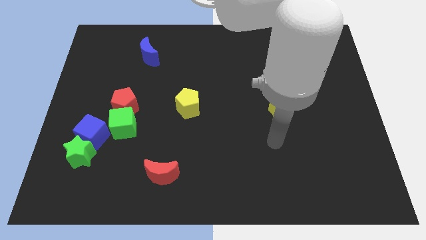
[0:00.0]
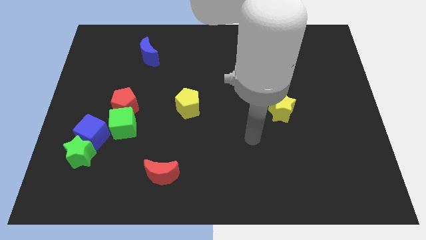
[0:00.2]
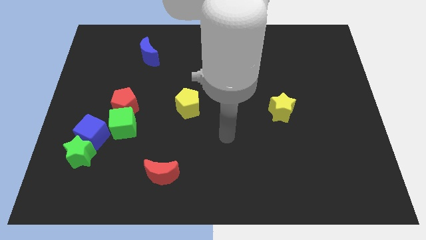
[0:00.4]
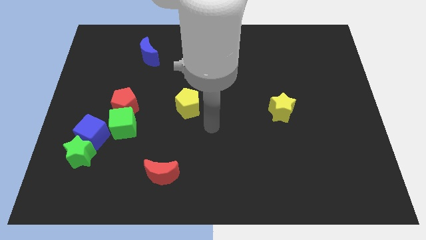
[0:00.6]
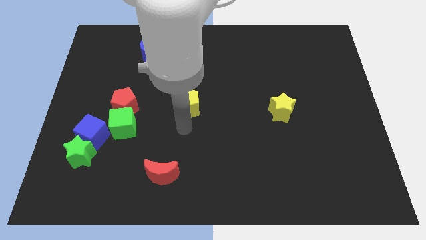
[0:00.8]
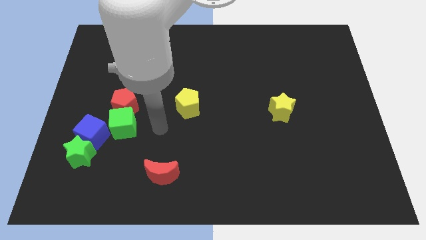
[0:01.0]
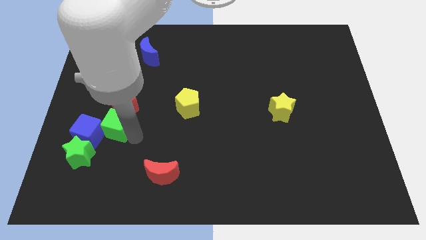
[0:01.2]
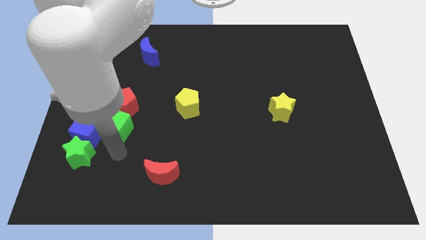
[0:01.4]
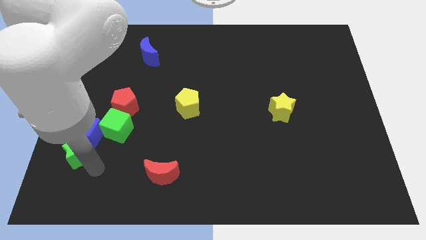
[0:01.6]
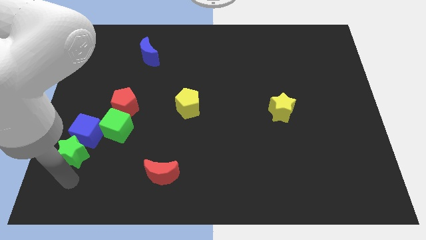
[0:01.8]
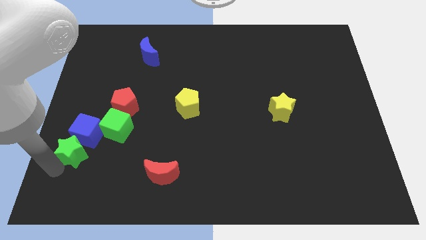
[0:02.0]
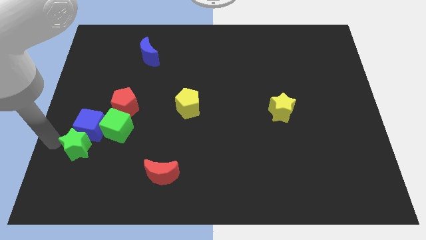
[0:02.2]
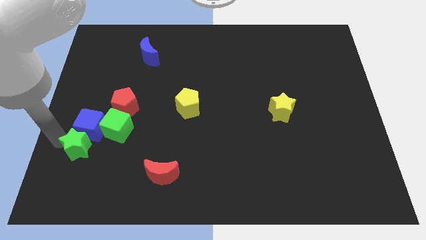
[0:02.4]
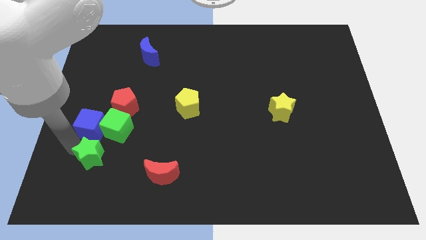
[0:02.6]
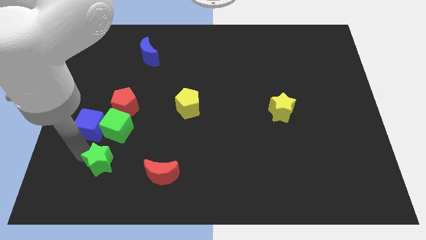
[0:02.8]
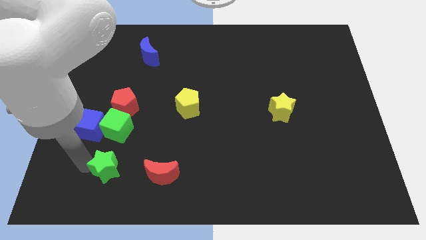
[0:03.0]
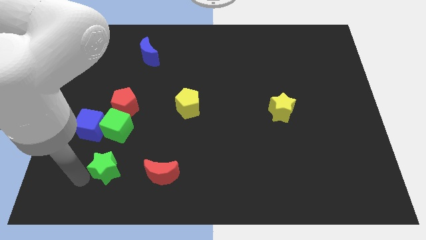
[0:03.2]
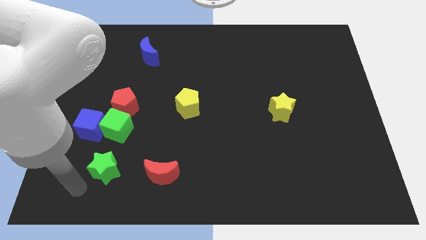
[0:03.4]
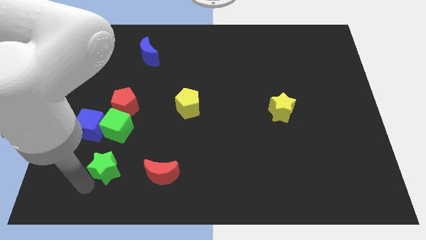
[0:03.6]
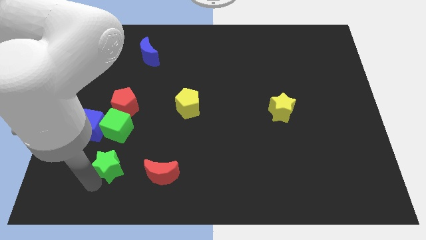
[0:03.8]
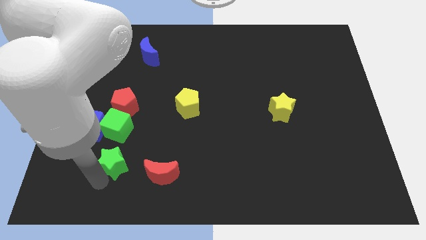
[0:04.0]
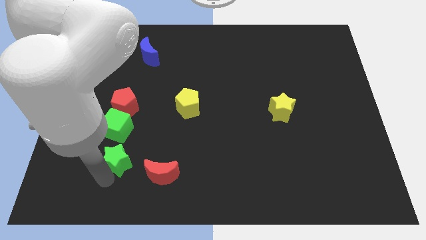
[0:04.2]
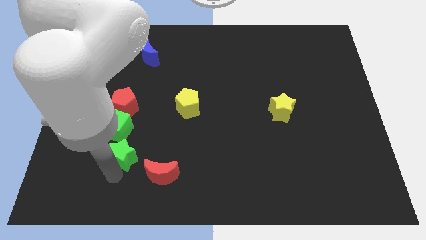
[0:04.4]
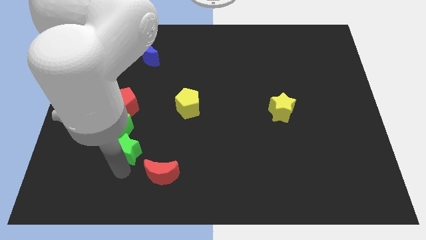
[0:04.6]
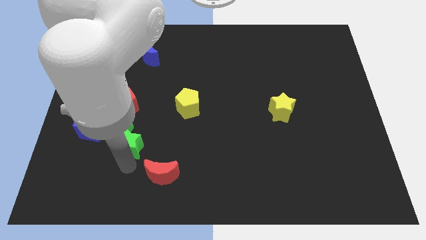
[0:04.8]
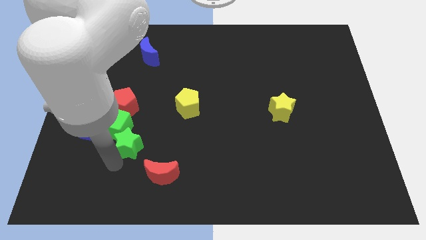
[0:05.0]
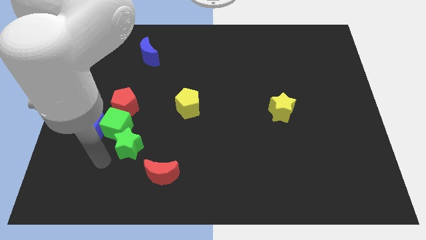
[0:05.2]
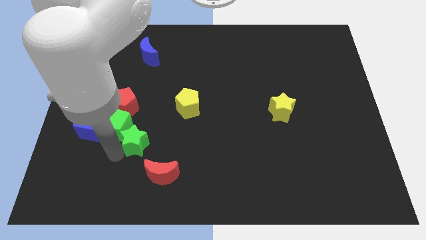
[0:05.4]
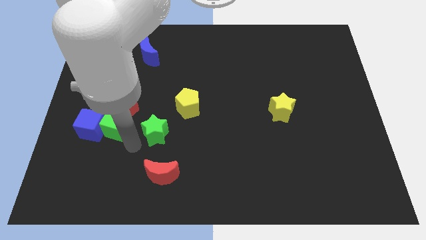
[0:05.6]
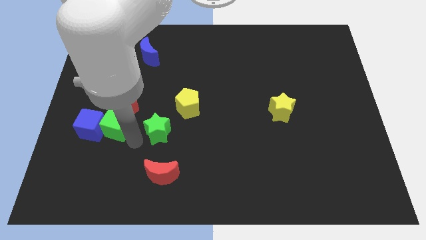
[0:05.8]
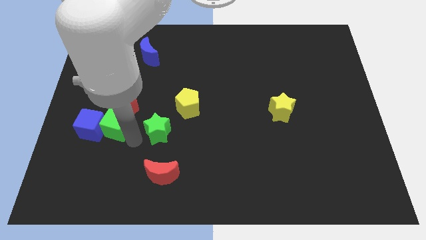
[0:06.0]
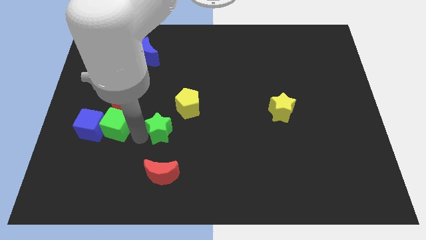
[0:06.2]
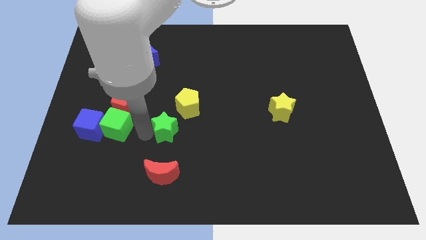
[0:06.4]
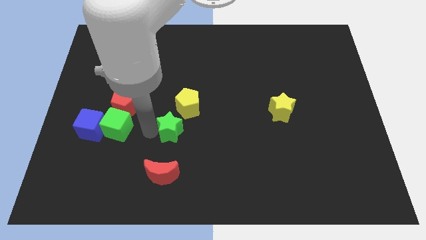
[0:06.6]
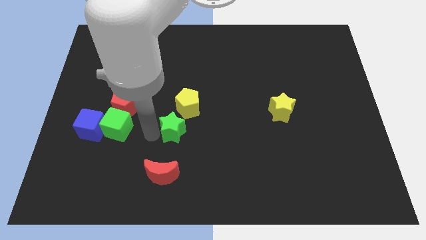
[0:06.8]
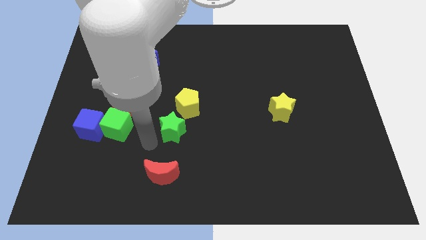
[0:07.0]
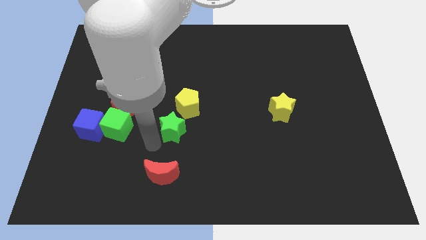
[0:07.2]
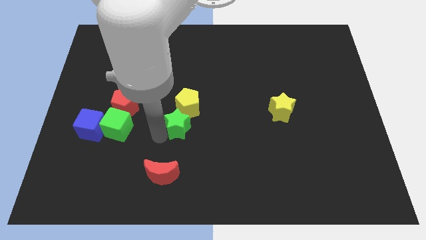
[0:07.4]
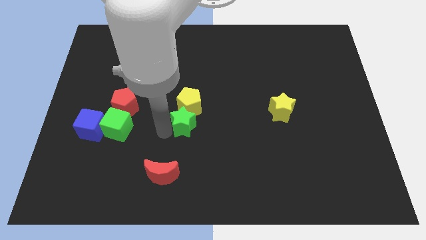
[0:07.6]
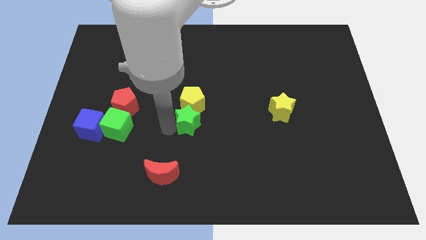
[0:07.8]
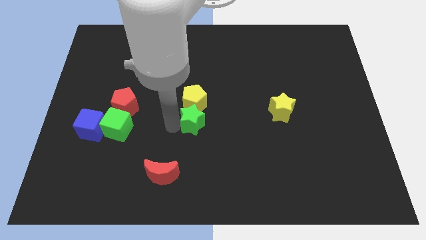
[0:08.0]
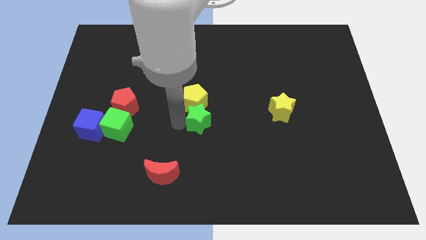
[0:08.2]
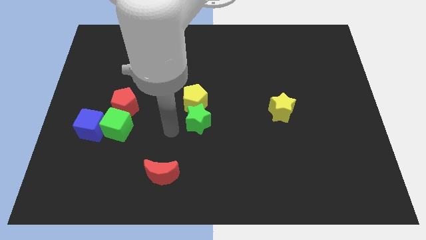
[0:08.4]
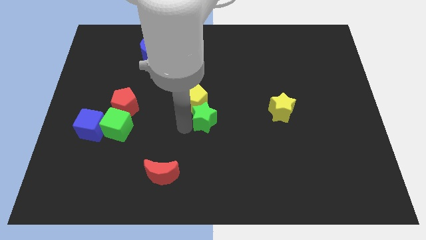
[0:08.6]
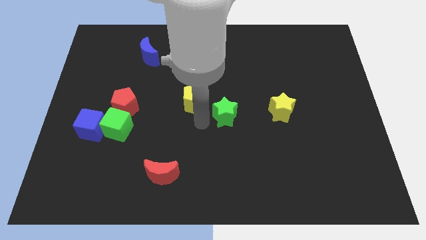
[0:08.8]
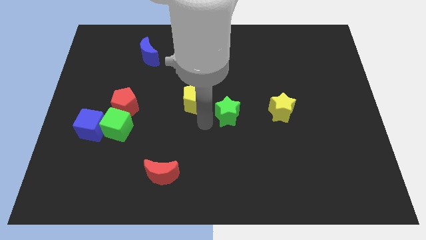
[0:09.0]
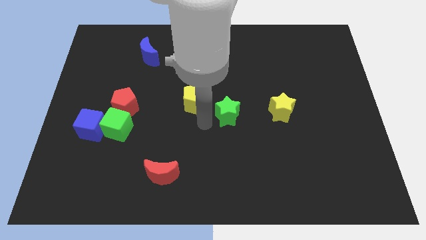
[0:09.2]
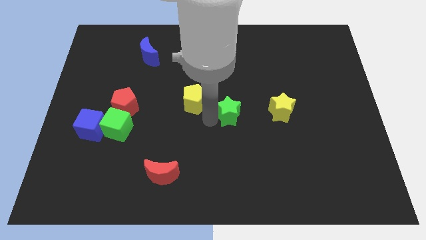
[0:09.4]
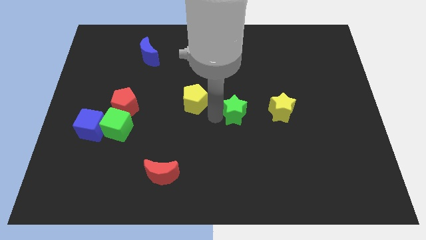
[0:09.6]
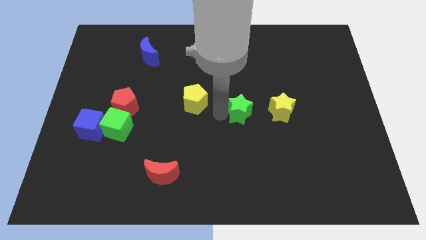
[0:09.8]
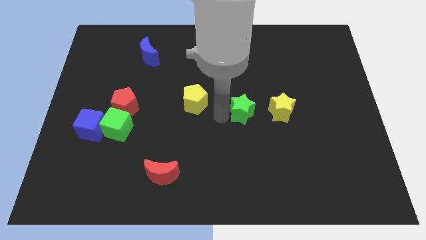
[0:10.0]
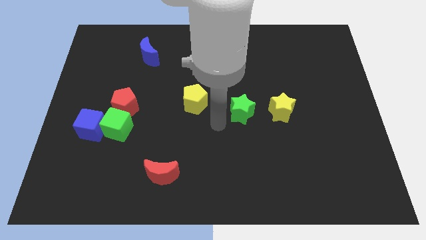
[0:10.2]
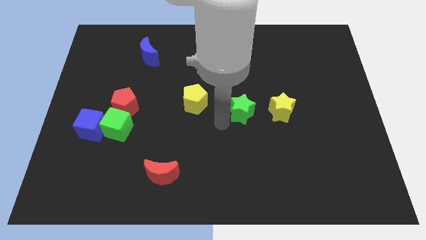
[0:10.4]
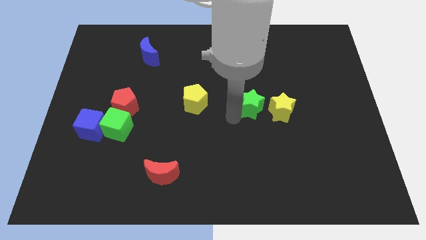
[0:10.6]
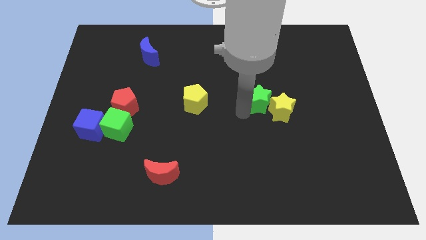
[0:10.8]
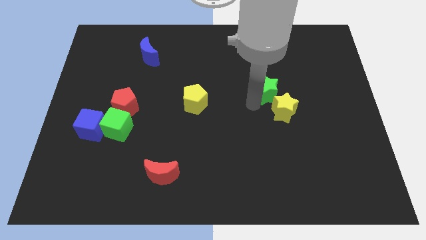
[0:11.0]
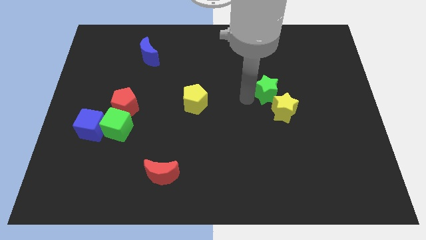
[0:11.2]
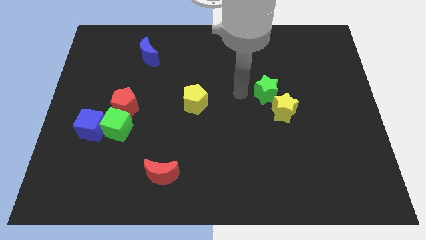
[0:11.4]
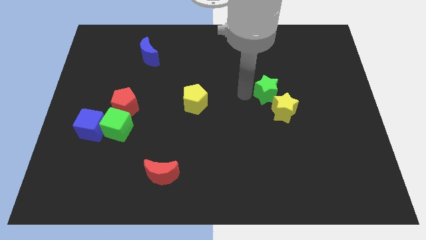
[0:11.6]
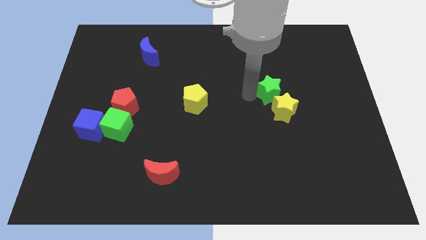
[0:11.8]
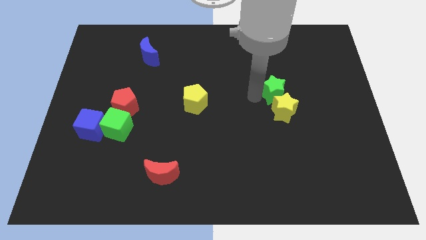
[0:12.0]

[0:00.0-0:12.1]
put the green star to the top right side of the yellow star

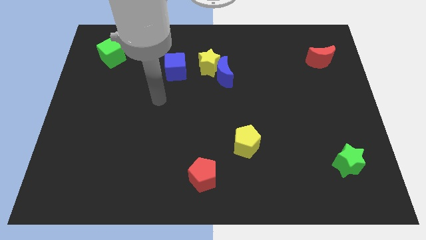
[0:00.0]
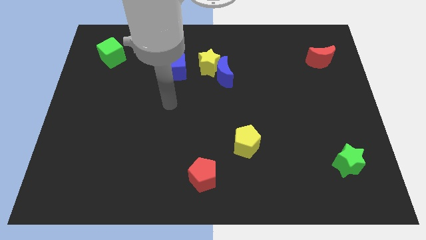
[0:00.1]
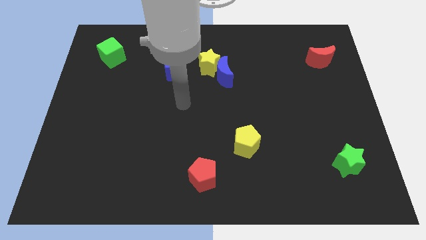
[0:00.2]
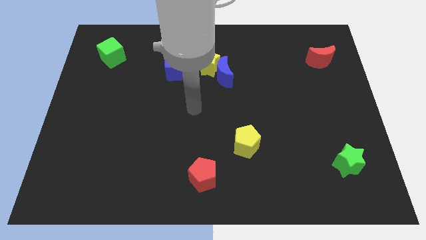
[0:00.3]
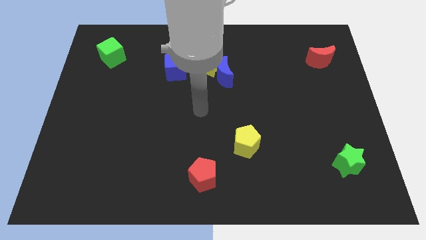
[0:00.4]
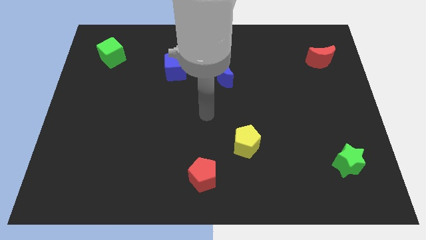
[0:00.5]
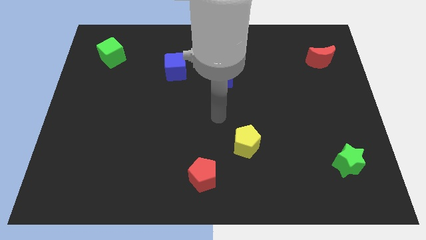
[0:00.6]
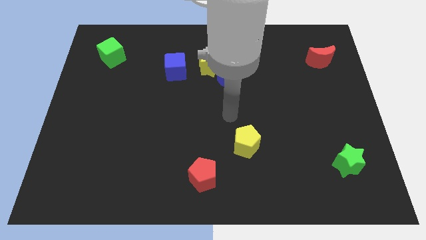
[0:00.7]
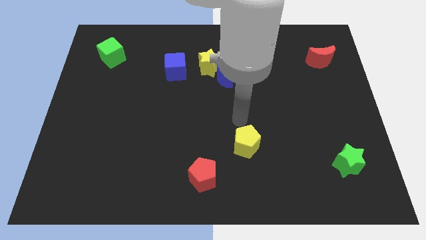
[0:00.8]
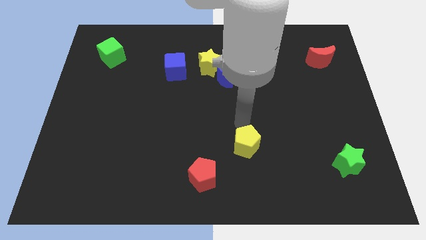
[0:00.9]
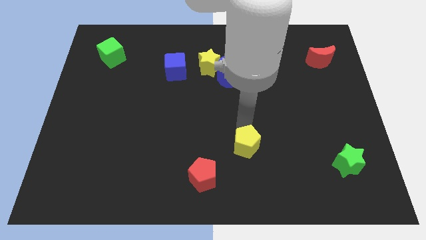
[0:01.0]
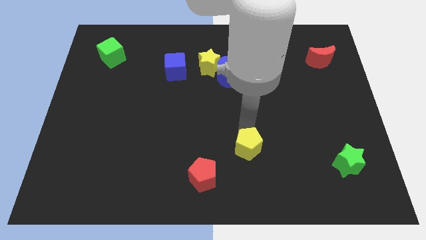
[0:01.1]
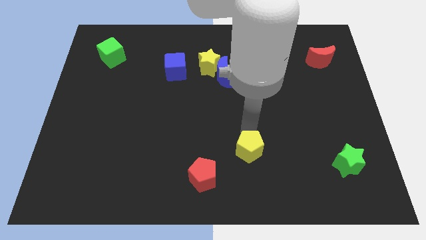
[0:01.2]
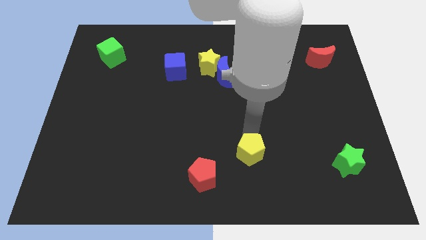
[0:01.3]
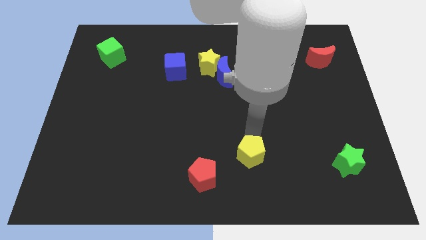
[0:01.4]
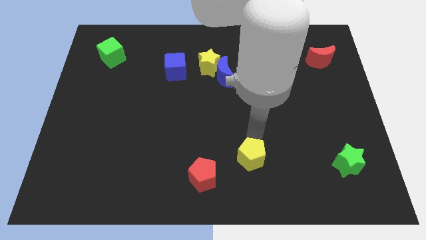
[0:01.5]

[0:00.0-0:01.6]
push the yellow pentagon just right of the red pentagon
